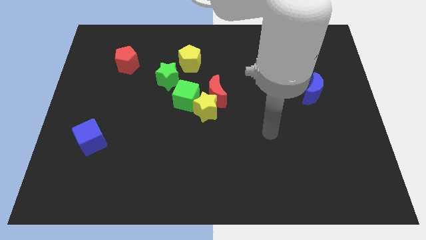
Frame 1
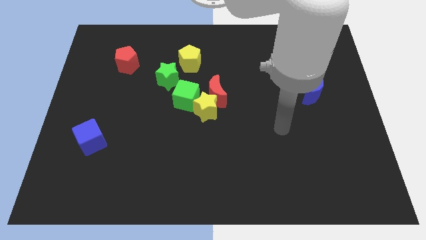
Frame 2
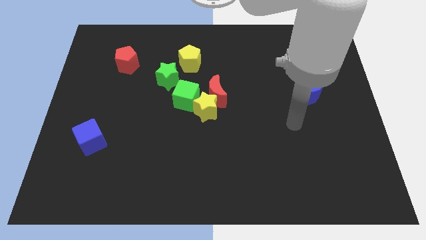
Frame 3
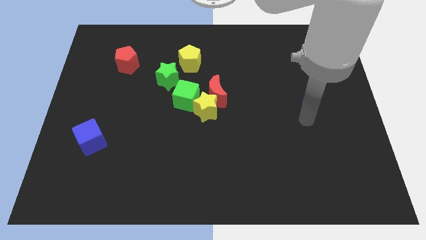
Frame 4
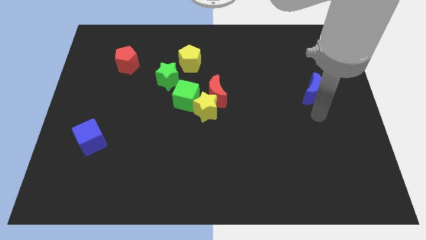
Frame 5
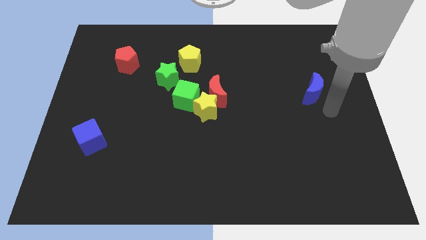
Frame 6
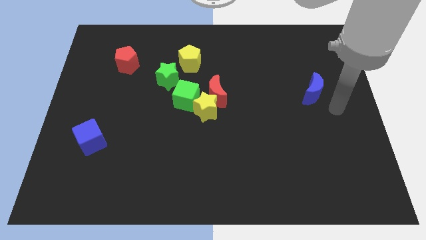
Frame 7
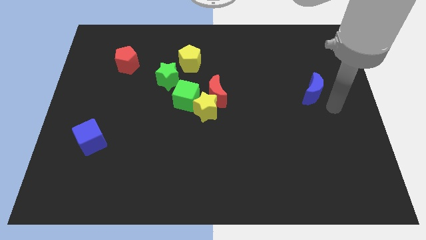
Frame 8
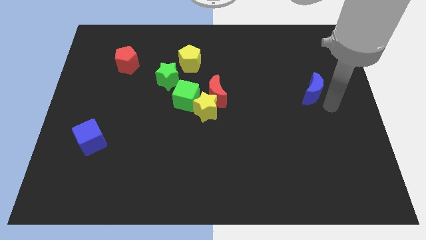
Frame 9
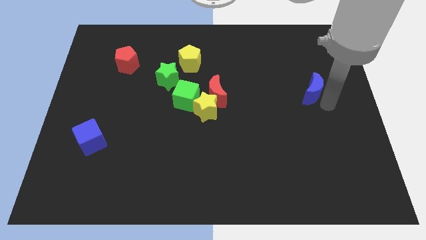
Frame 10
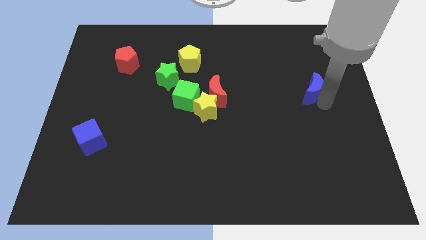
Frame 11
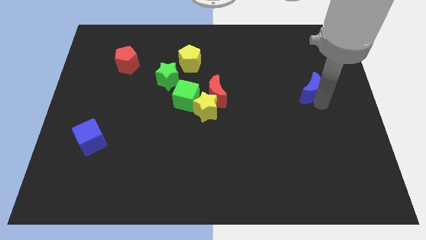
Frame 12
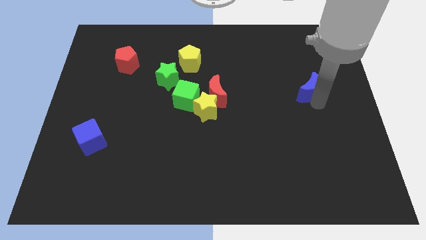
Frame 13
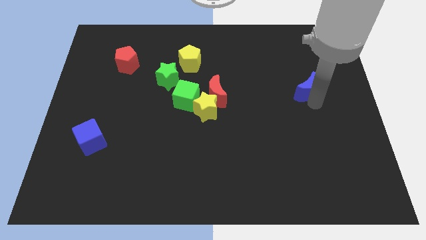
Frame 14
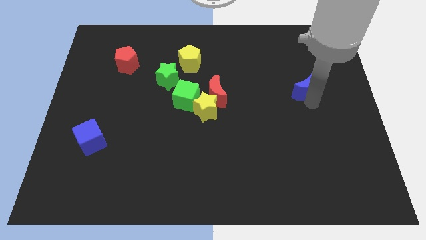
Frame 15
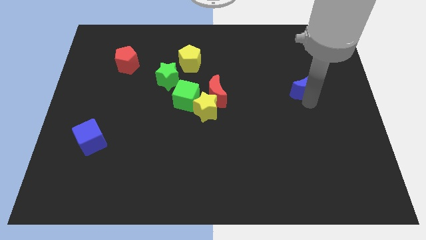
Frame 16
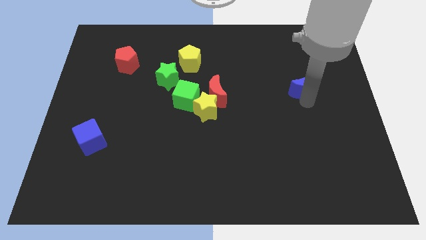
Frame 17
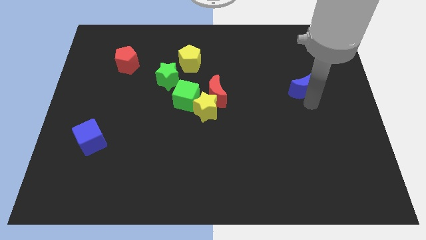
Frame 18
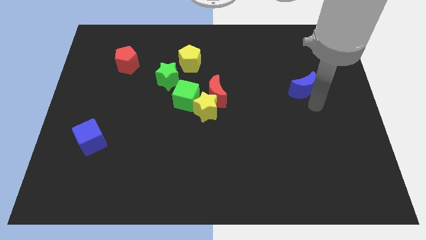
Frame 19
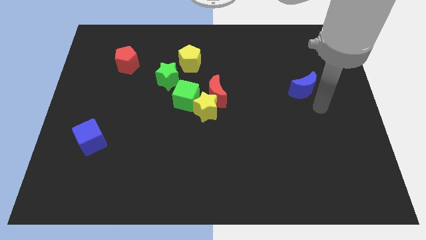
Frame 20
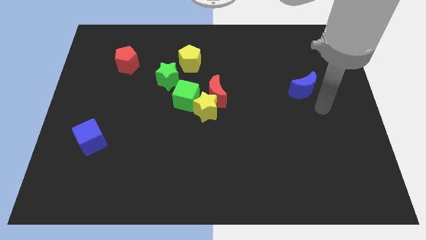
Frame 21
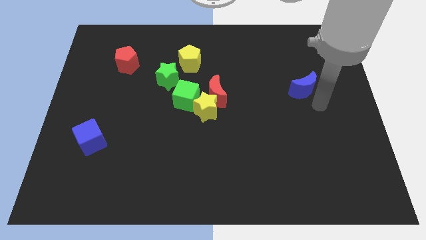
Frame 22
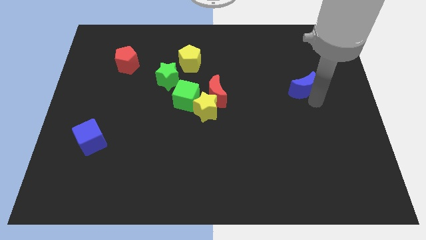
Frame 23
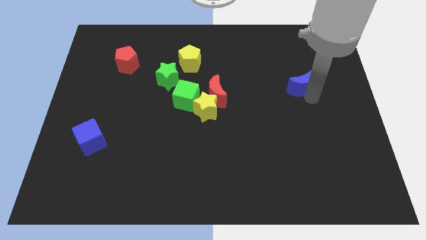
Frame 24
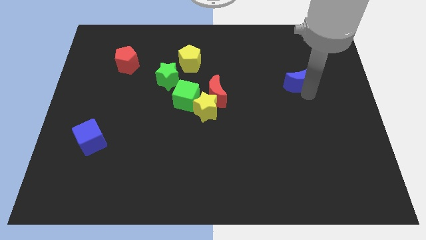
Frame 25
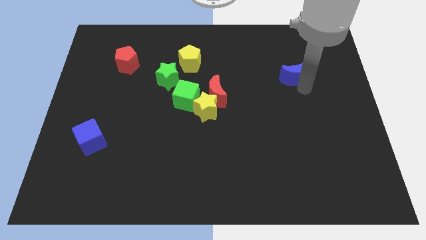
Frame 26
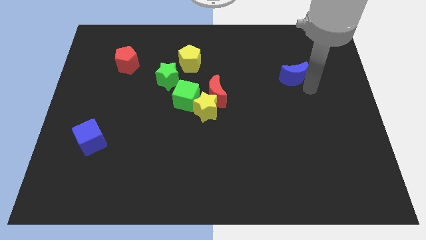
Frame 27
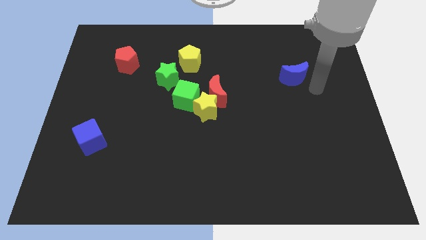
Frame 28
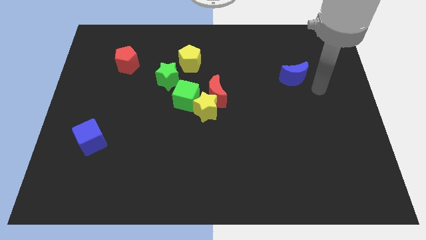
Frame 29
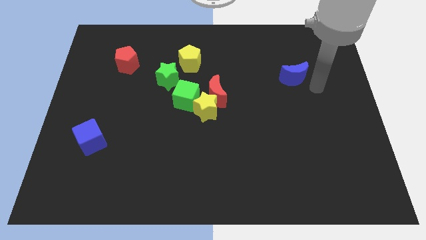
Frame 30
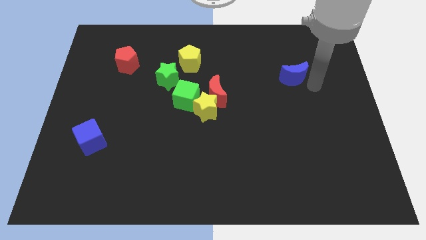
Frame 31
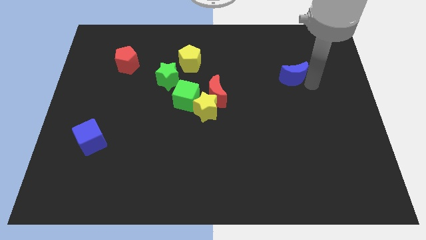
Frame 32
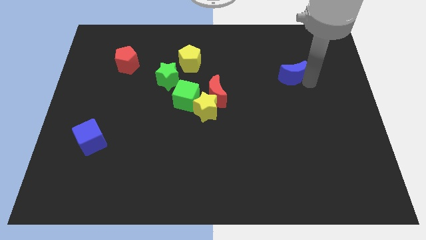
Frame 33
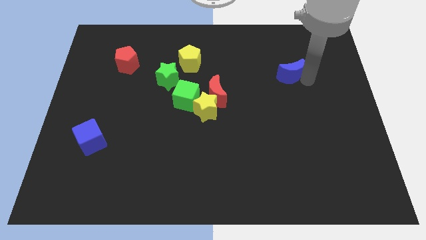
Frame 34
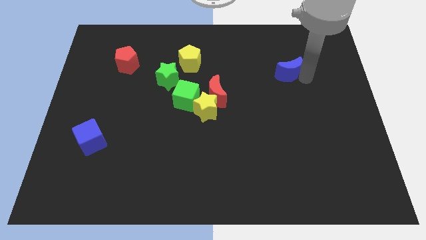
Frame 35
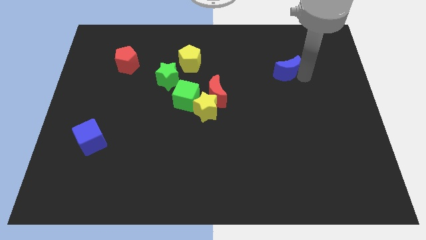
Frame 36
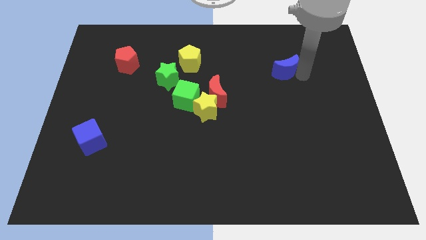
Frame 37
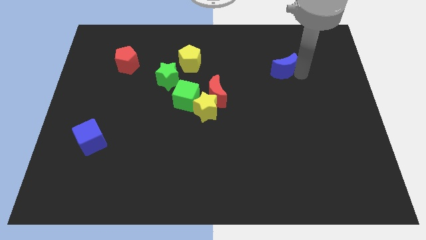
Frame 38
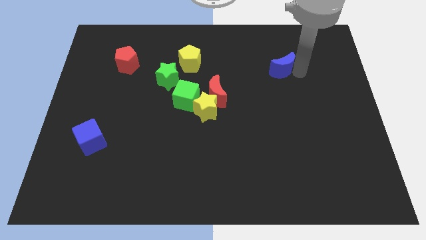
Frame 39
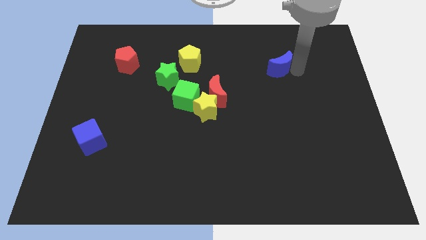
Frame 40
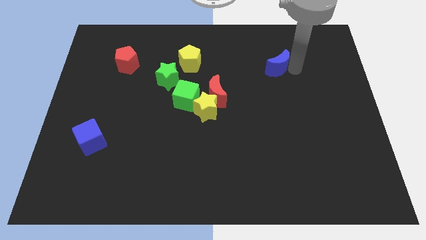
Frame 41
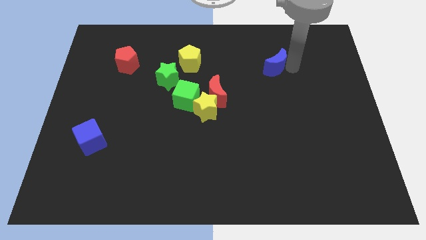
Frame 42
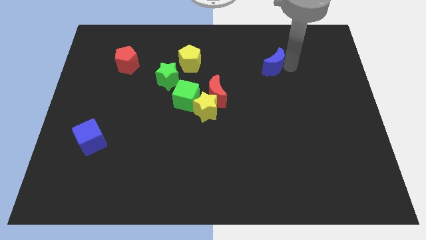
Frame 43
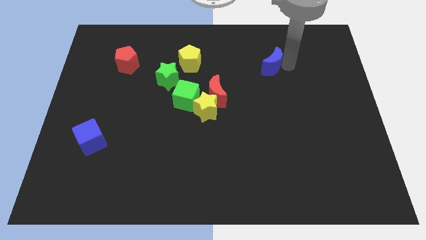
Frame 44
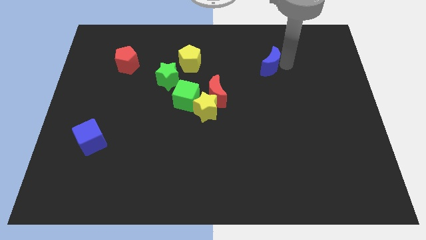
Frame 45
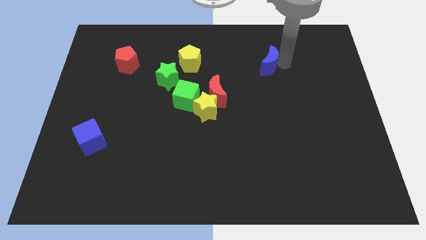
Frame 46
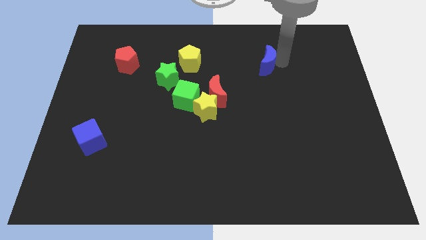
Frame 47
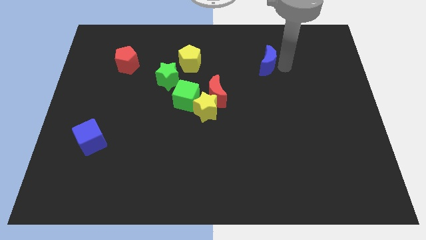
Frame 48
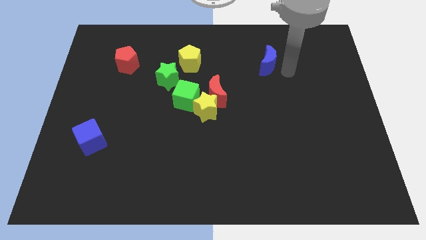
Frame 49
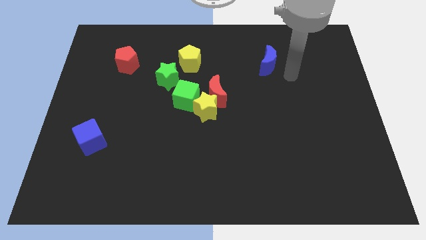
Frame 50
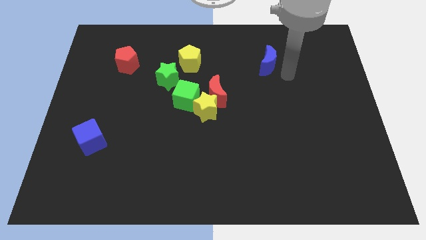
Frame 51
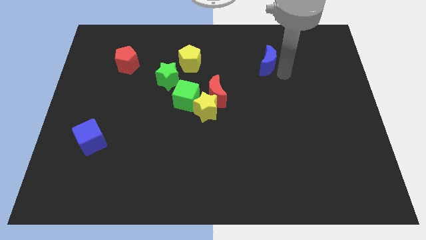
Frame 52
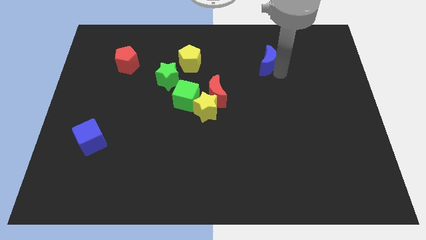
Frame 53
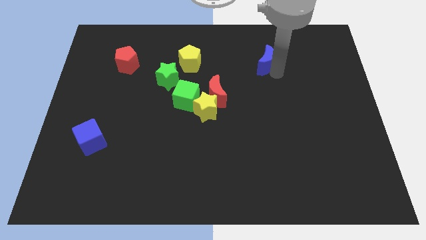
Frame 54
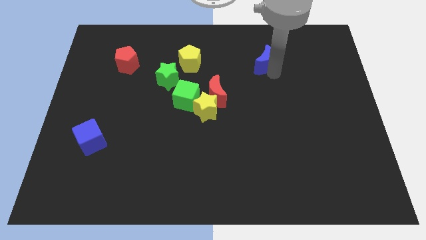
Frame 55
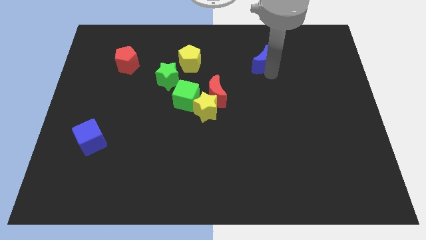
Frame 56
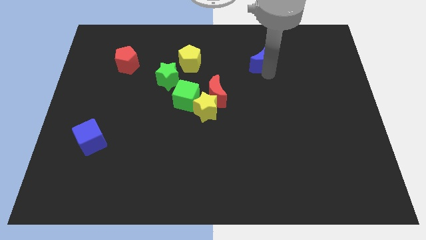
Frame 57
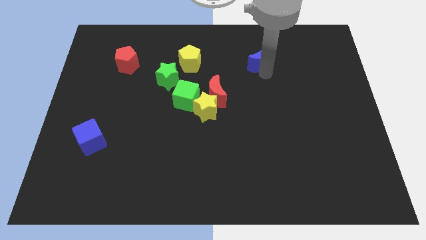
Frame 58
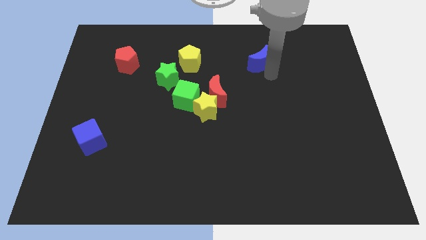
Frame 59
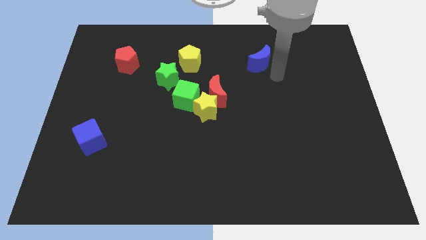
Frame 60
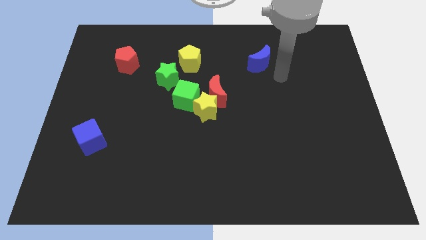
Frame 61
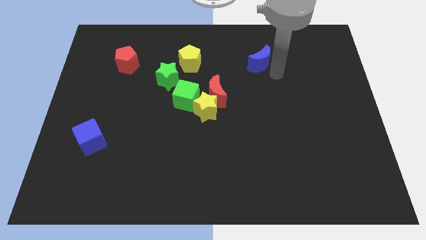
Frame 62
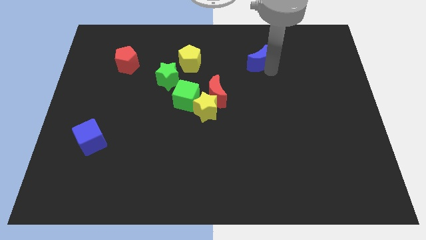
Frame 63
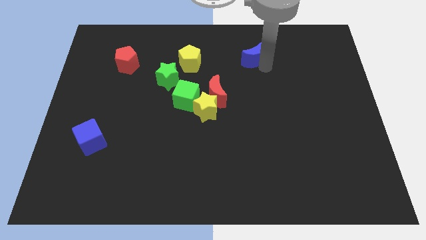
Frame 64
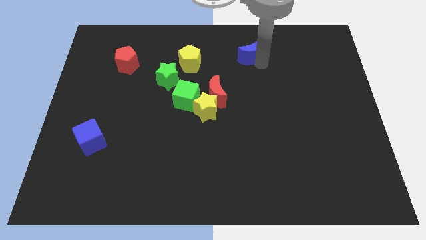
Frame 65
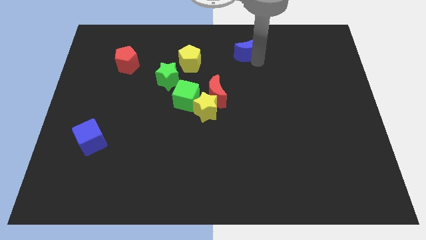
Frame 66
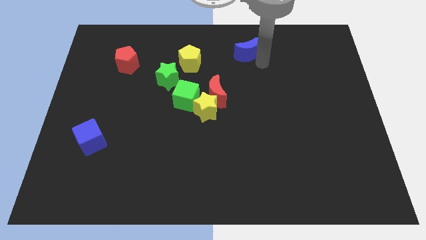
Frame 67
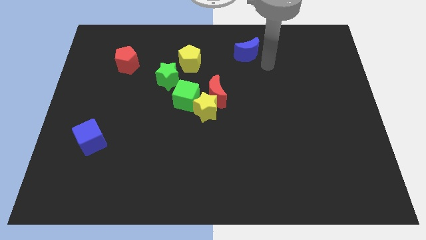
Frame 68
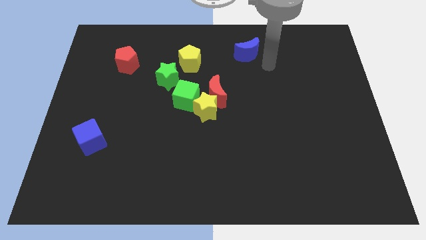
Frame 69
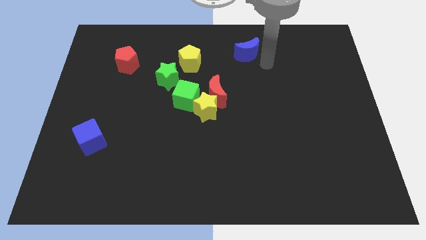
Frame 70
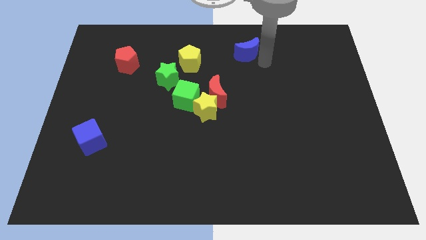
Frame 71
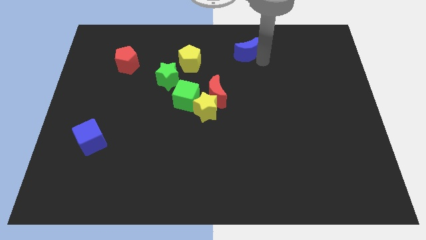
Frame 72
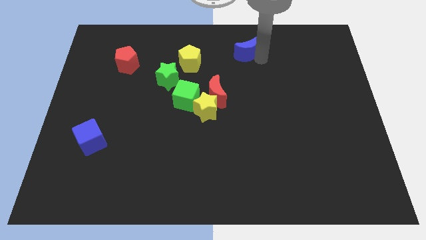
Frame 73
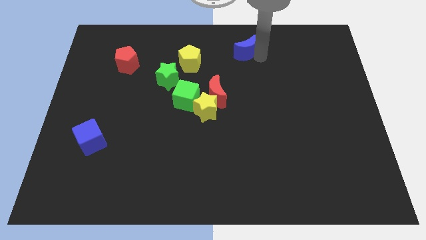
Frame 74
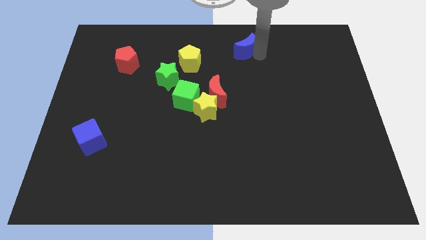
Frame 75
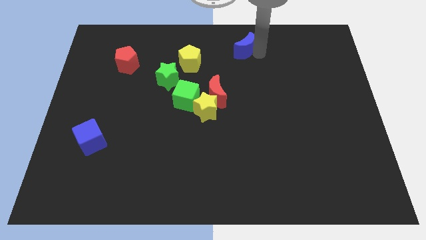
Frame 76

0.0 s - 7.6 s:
move the blue moon to the towards your base
